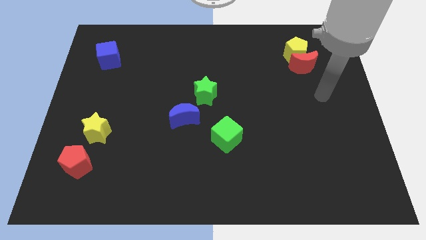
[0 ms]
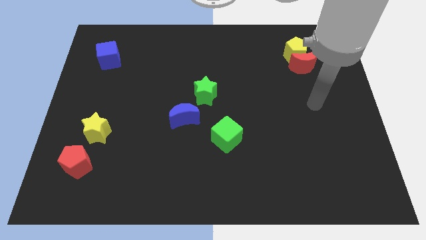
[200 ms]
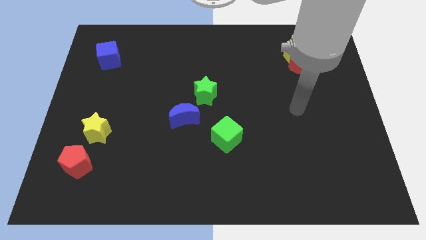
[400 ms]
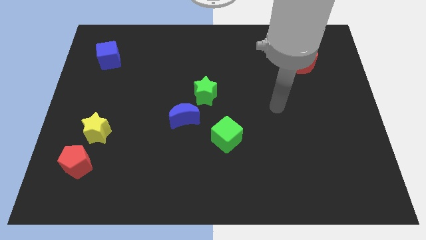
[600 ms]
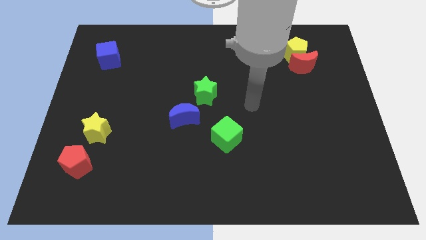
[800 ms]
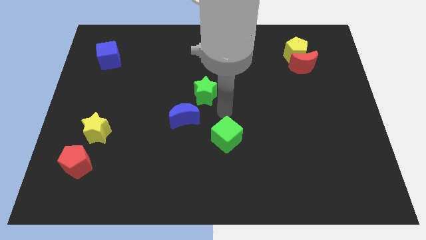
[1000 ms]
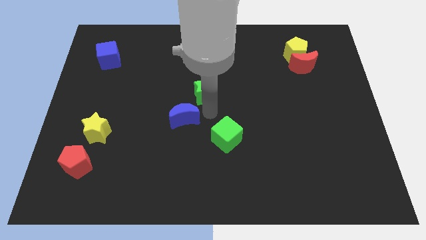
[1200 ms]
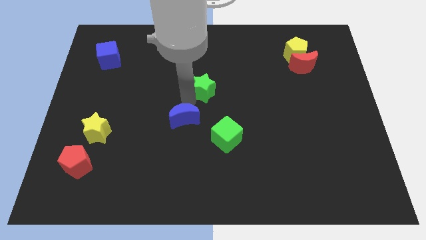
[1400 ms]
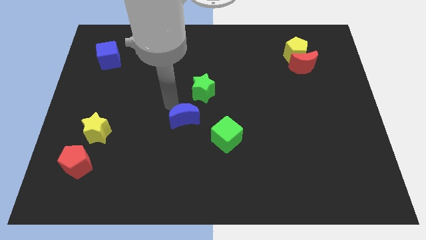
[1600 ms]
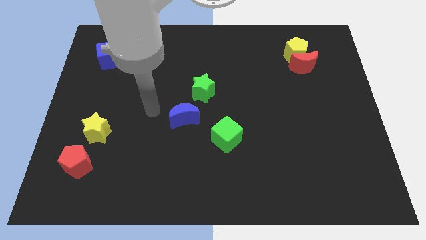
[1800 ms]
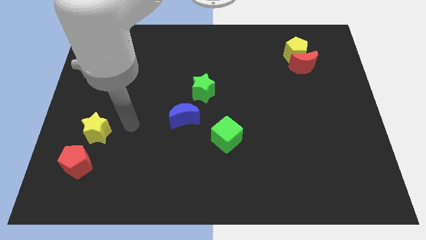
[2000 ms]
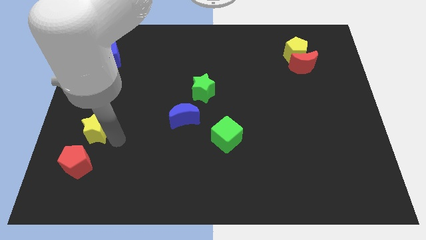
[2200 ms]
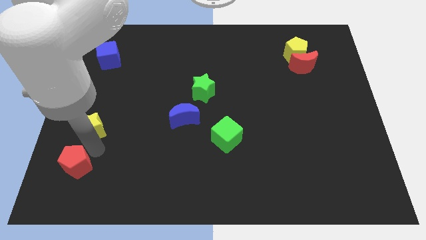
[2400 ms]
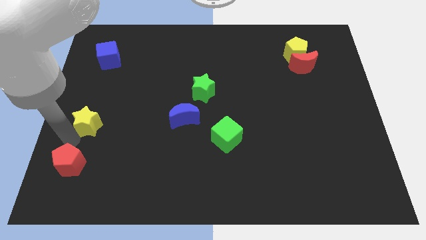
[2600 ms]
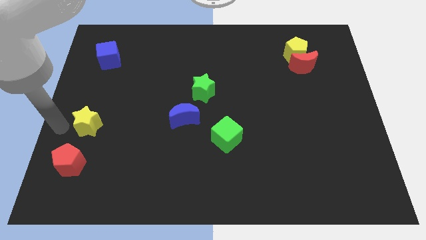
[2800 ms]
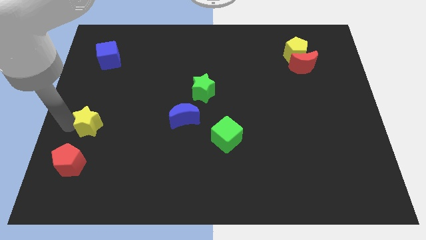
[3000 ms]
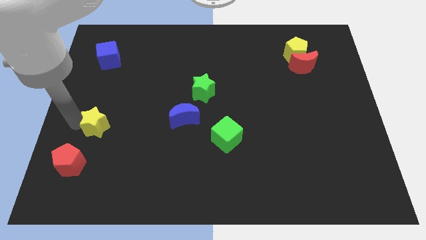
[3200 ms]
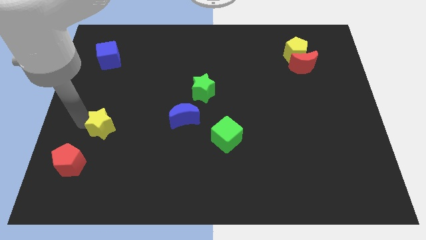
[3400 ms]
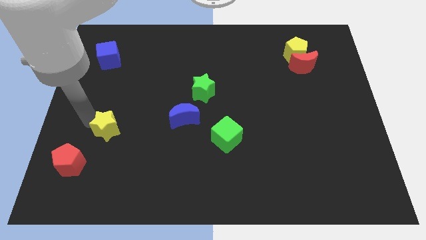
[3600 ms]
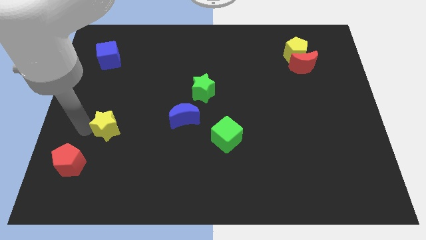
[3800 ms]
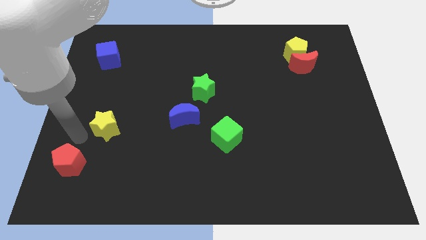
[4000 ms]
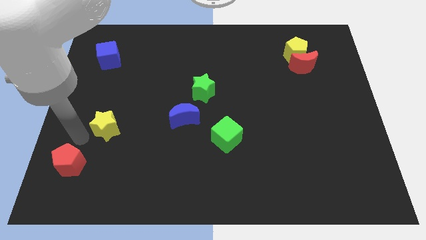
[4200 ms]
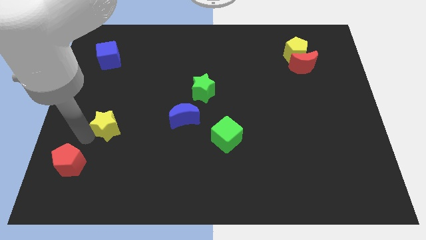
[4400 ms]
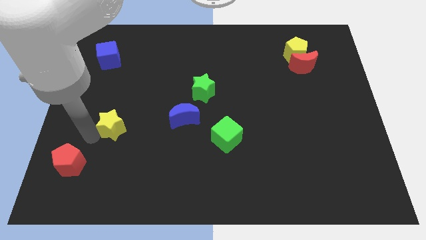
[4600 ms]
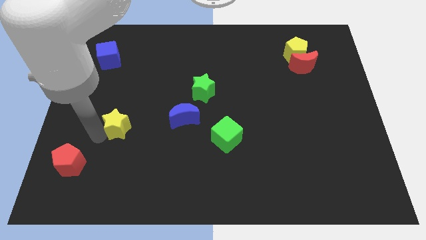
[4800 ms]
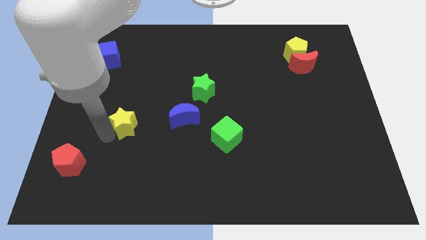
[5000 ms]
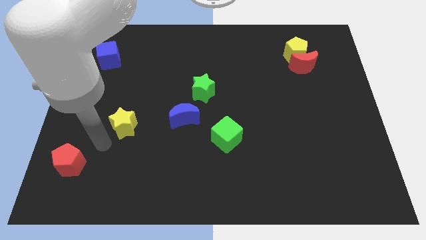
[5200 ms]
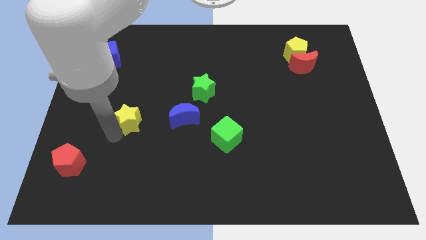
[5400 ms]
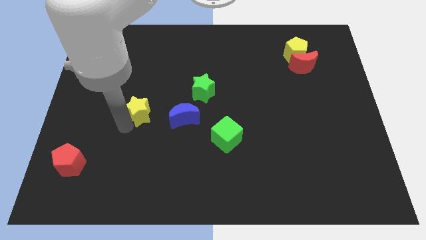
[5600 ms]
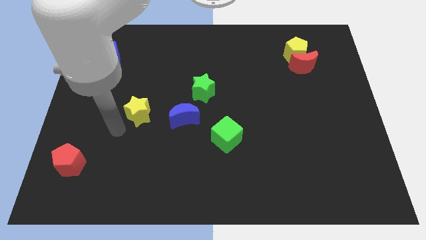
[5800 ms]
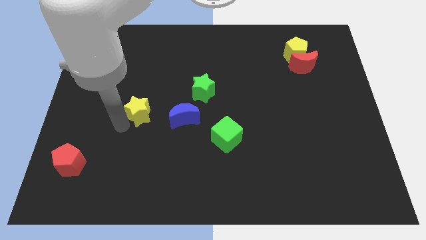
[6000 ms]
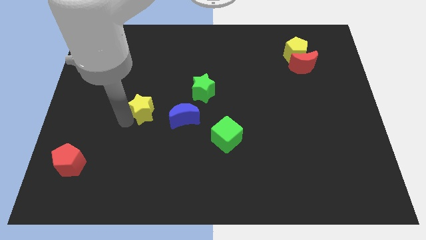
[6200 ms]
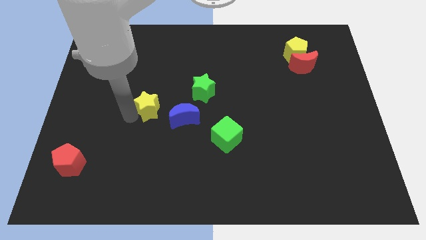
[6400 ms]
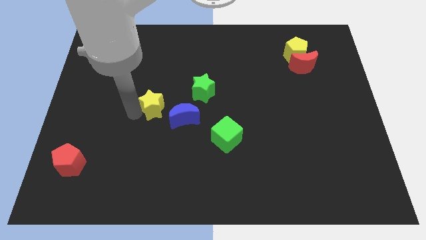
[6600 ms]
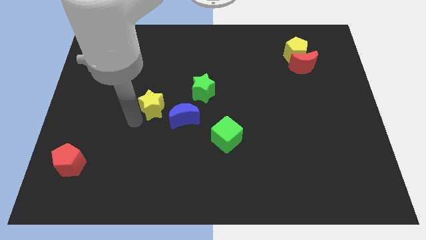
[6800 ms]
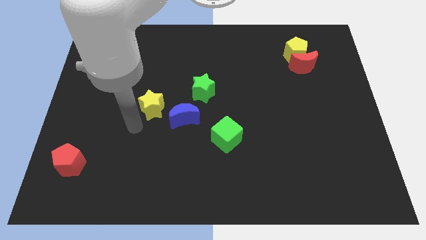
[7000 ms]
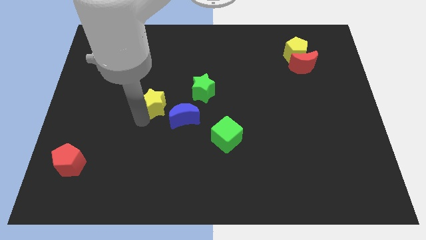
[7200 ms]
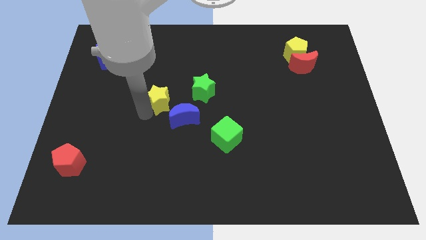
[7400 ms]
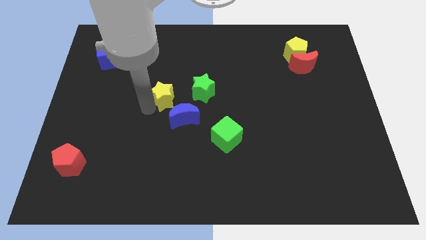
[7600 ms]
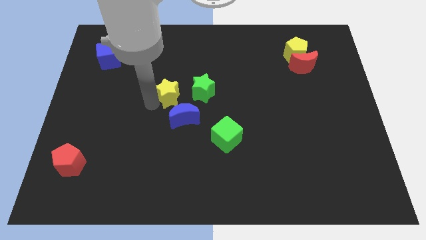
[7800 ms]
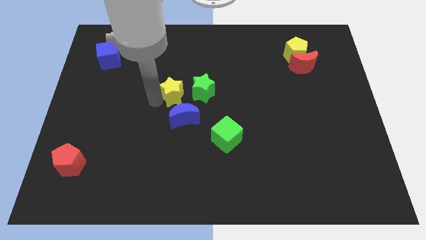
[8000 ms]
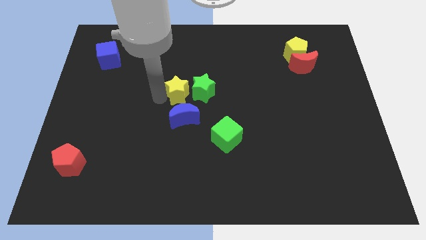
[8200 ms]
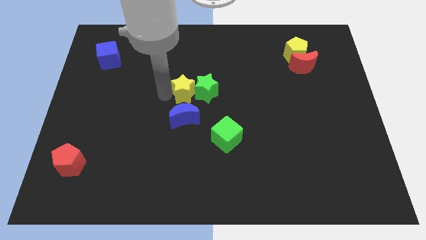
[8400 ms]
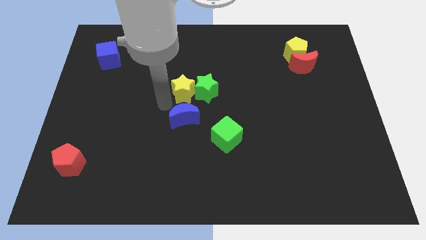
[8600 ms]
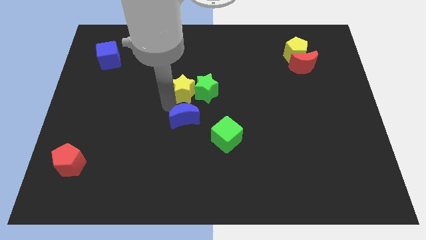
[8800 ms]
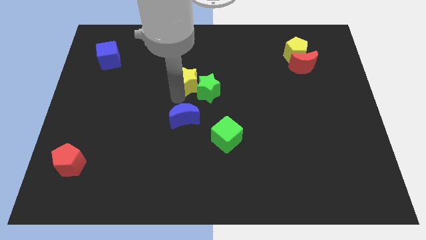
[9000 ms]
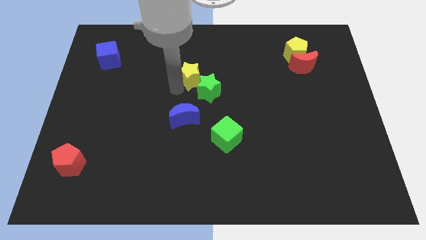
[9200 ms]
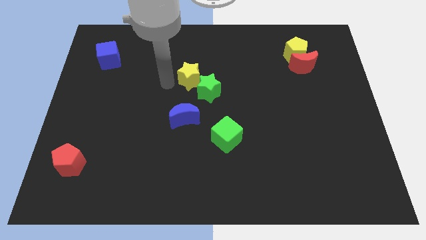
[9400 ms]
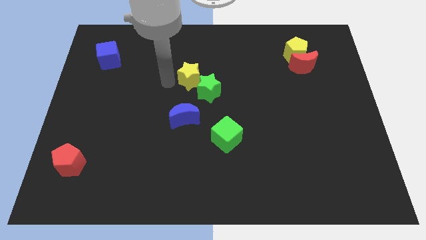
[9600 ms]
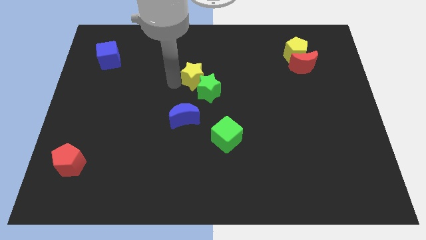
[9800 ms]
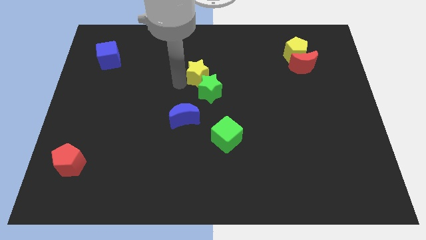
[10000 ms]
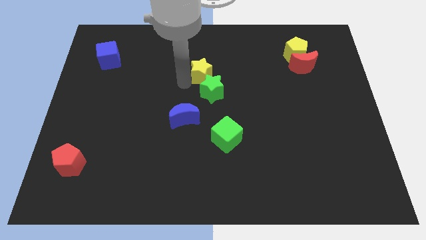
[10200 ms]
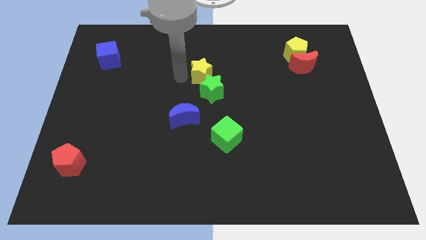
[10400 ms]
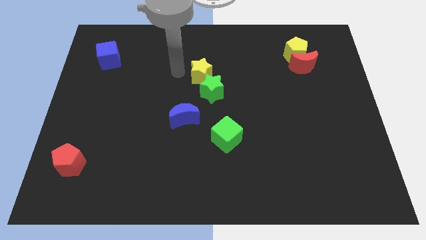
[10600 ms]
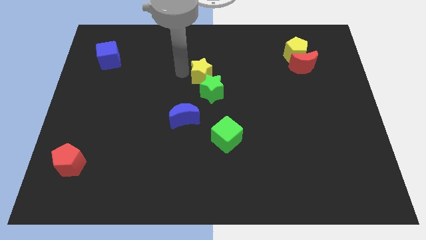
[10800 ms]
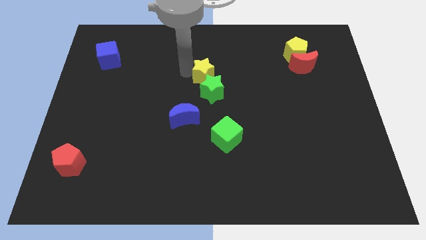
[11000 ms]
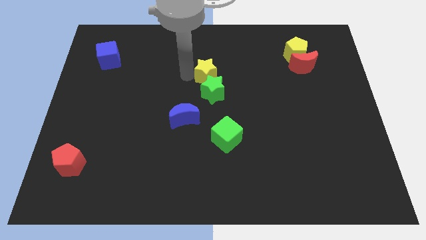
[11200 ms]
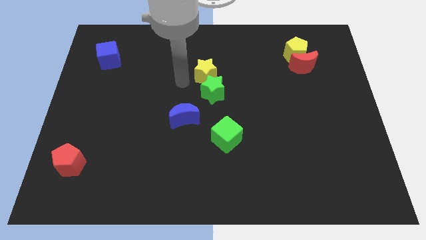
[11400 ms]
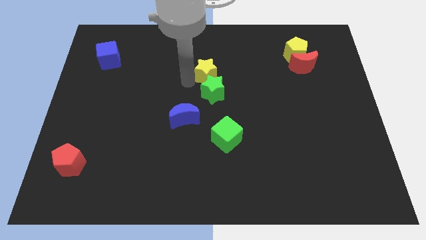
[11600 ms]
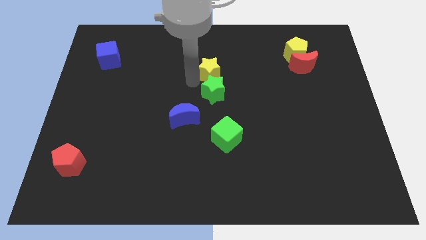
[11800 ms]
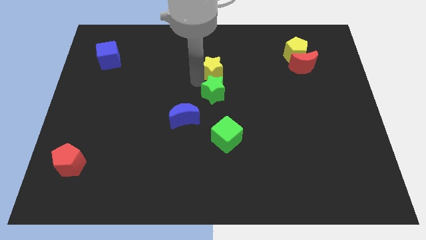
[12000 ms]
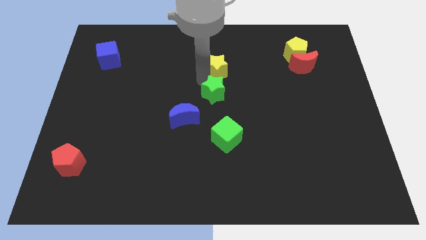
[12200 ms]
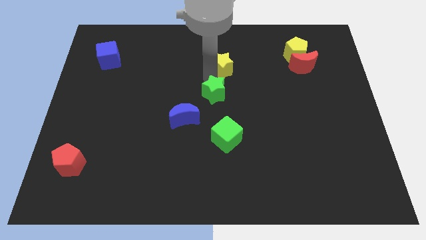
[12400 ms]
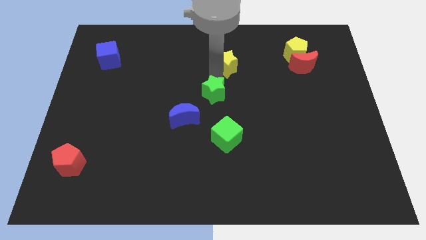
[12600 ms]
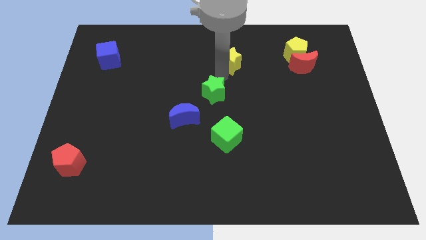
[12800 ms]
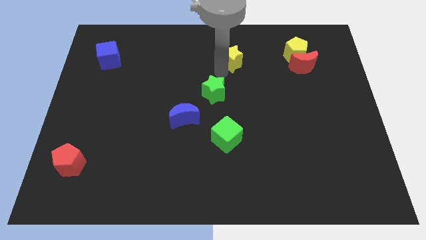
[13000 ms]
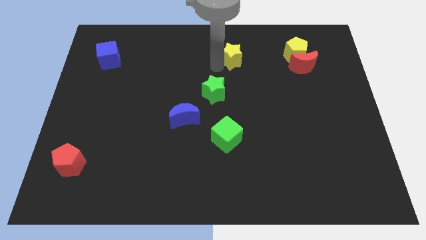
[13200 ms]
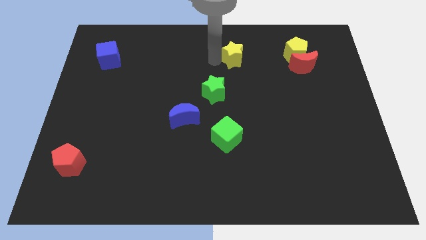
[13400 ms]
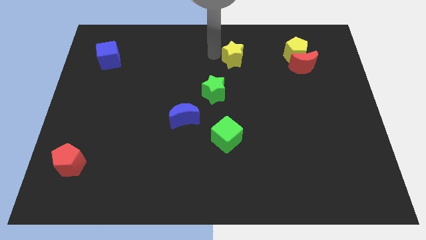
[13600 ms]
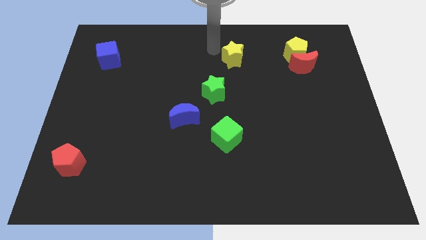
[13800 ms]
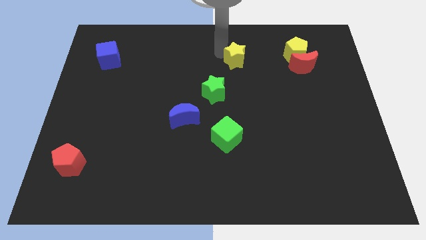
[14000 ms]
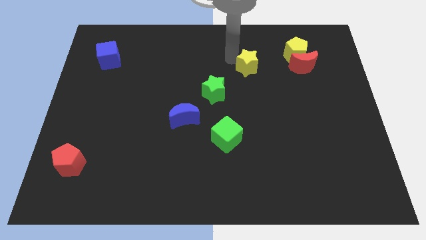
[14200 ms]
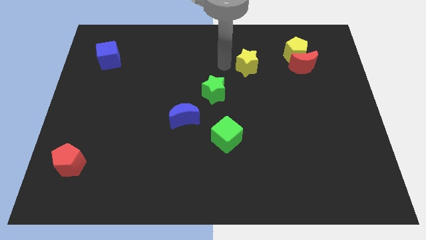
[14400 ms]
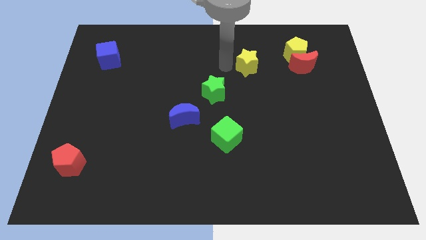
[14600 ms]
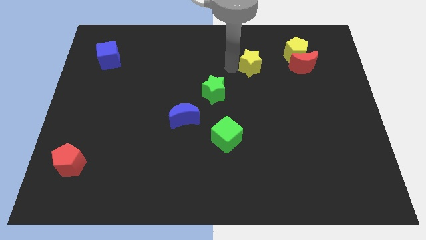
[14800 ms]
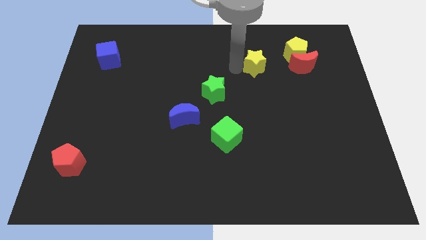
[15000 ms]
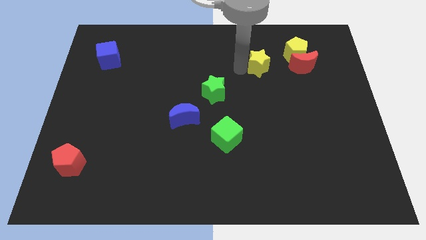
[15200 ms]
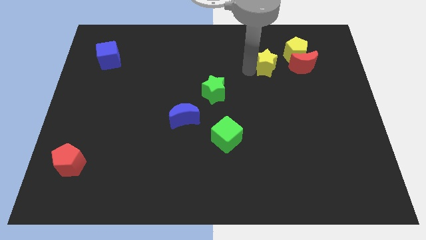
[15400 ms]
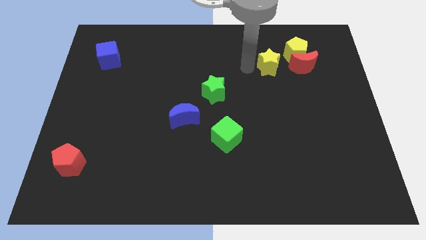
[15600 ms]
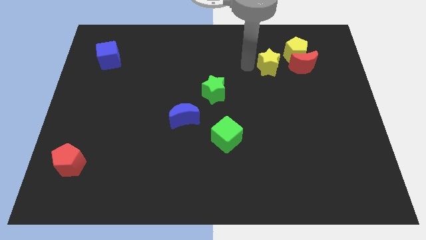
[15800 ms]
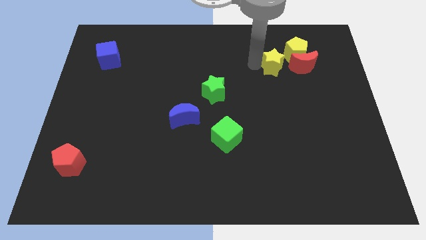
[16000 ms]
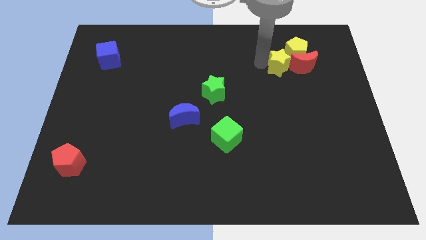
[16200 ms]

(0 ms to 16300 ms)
move the yellow star next to the red moon
